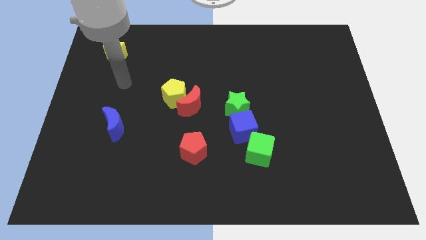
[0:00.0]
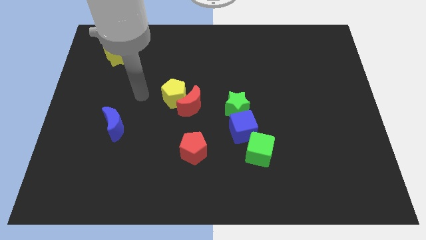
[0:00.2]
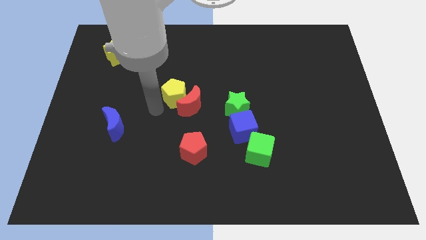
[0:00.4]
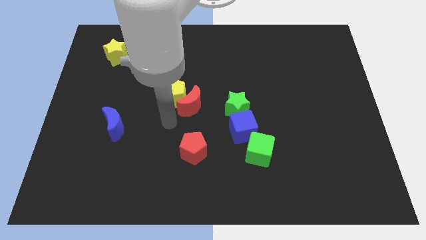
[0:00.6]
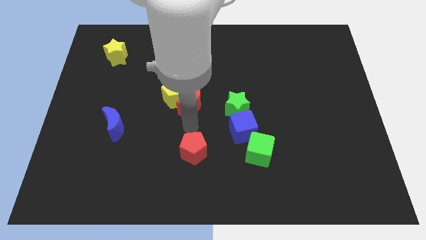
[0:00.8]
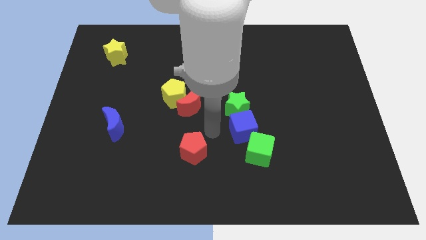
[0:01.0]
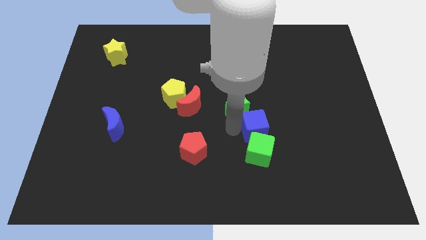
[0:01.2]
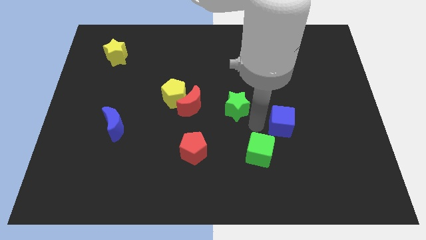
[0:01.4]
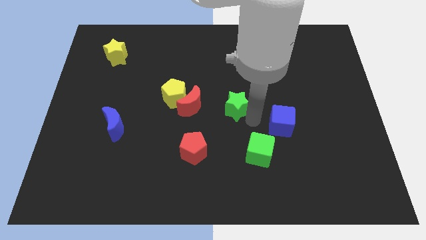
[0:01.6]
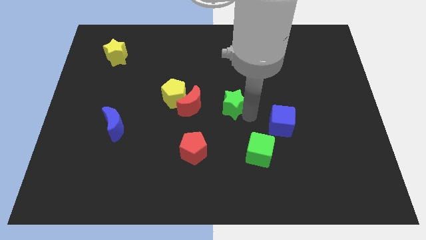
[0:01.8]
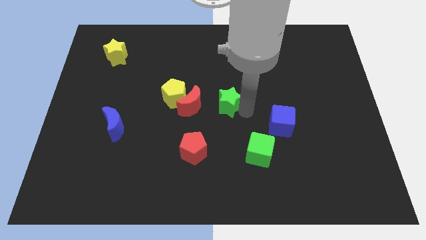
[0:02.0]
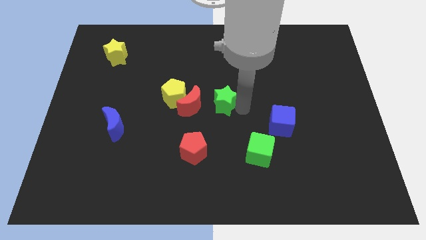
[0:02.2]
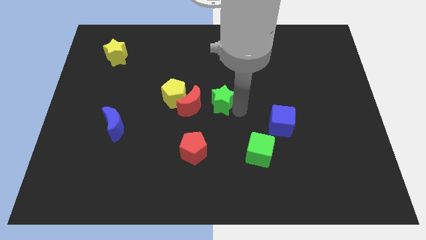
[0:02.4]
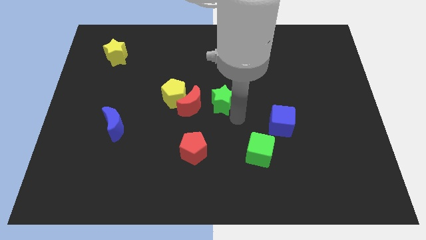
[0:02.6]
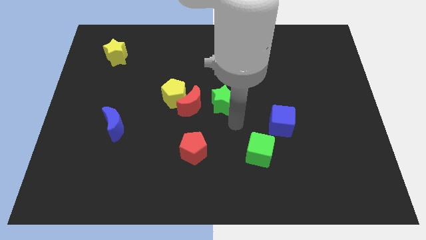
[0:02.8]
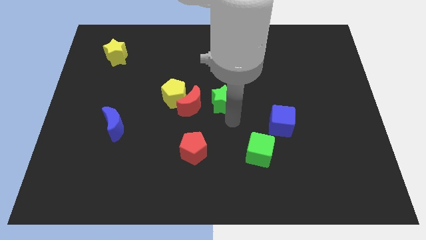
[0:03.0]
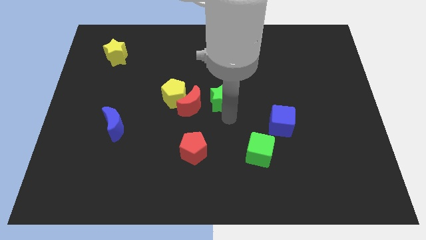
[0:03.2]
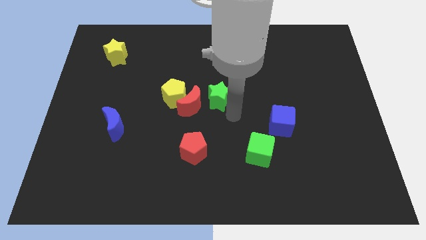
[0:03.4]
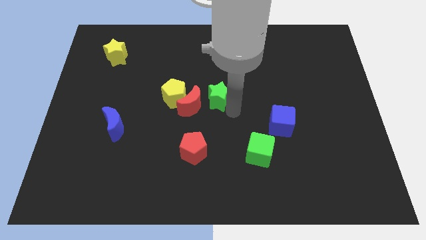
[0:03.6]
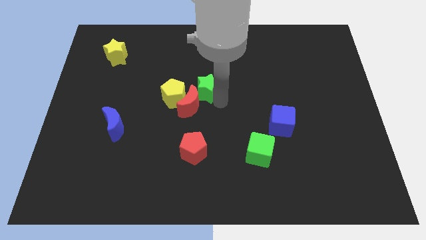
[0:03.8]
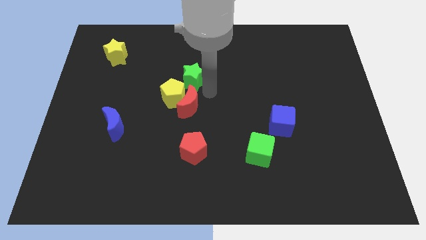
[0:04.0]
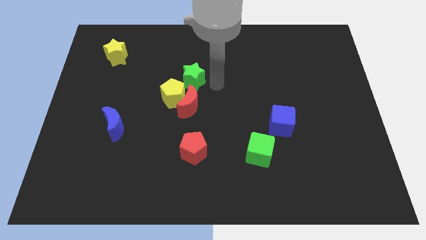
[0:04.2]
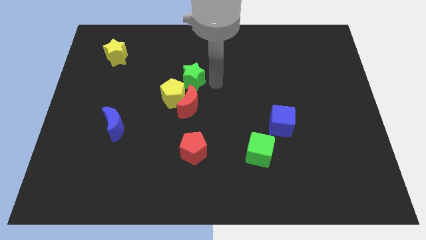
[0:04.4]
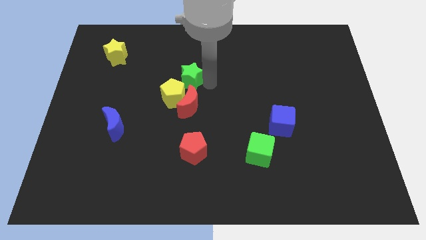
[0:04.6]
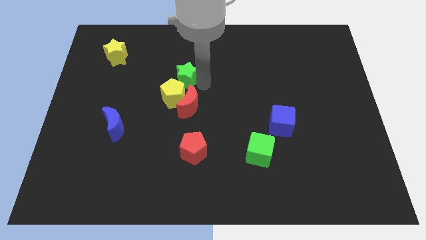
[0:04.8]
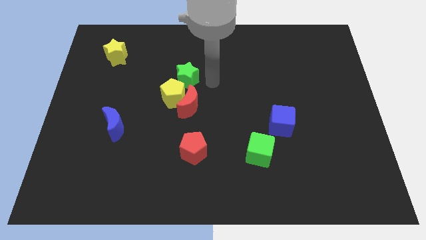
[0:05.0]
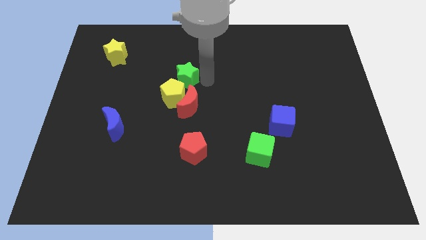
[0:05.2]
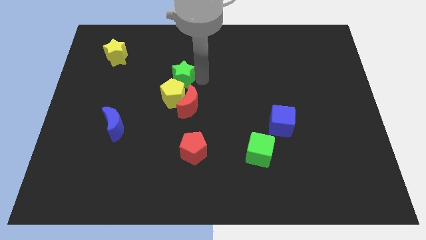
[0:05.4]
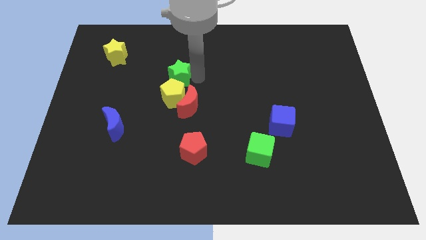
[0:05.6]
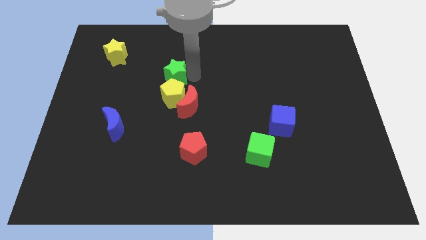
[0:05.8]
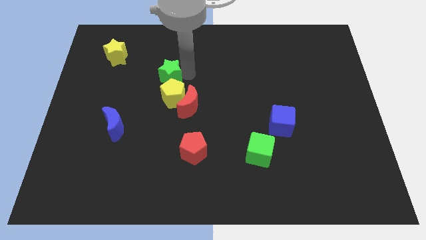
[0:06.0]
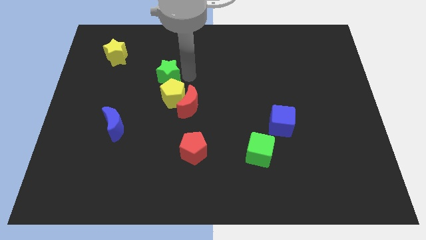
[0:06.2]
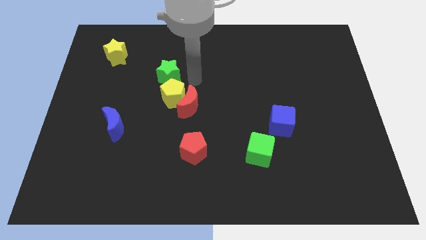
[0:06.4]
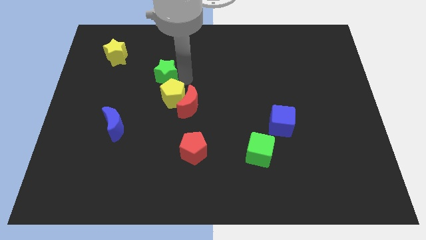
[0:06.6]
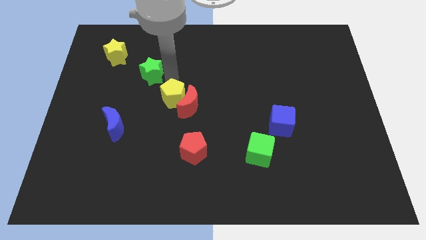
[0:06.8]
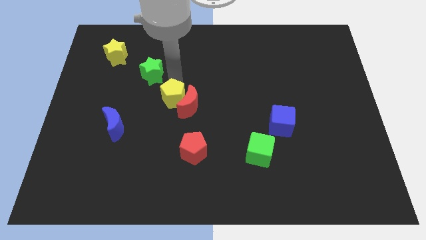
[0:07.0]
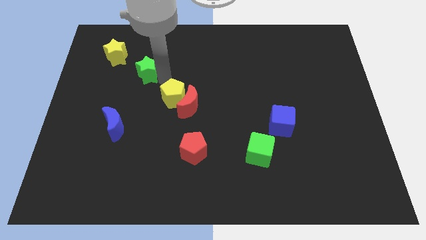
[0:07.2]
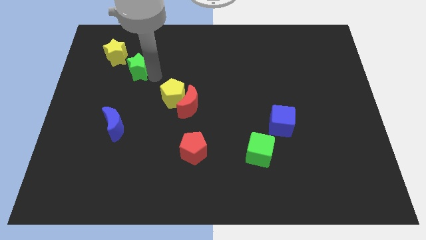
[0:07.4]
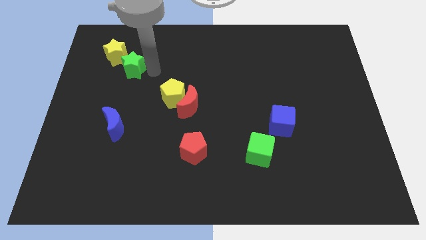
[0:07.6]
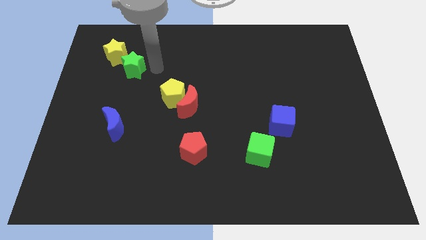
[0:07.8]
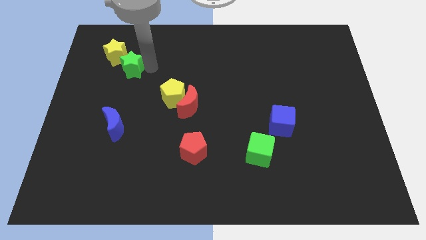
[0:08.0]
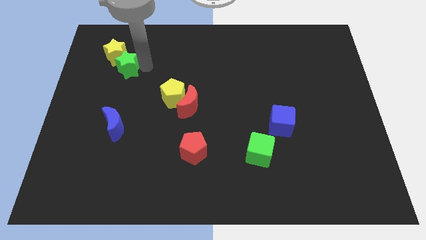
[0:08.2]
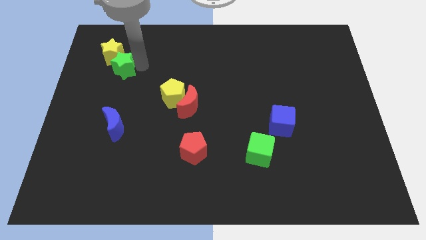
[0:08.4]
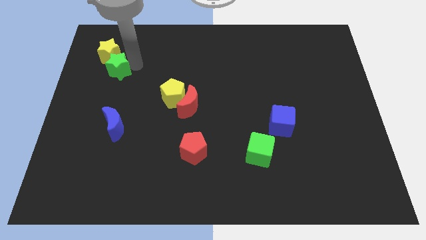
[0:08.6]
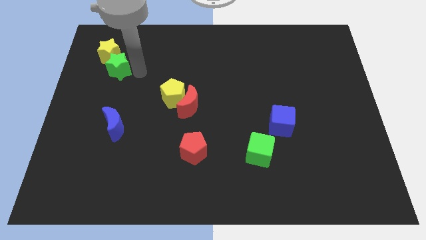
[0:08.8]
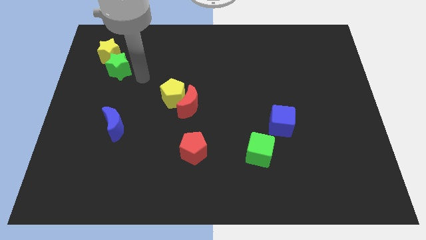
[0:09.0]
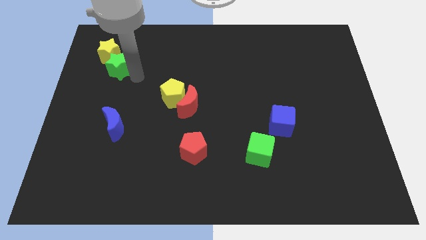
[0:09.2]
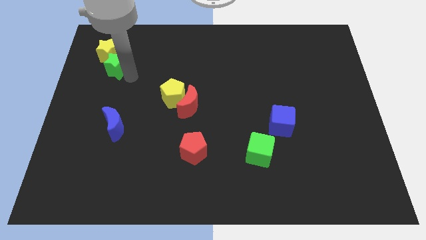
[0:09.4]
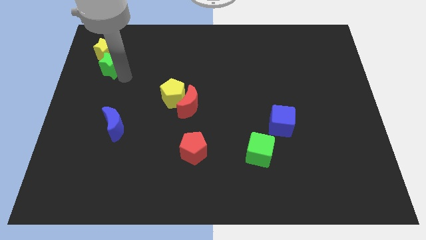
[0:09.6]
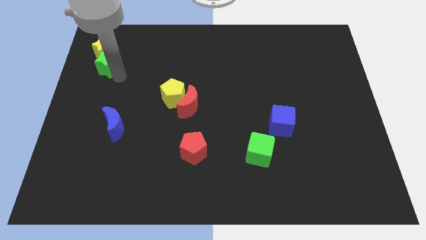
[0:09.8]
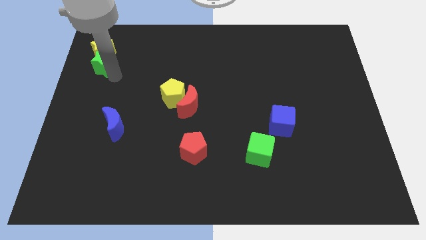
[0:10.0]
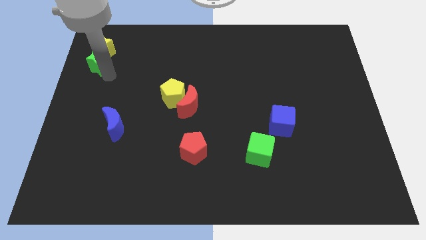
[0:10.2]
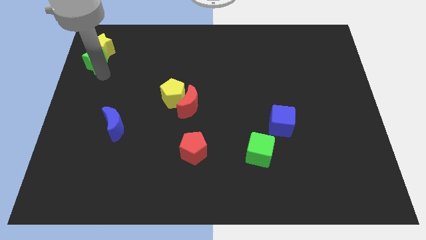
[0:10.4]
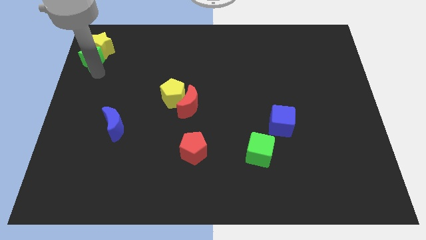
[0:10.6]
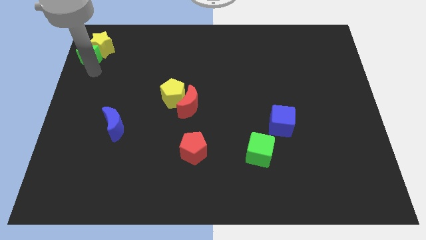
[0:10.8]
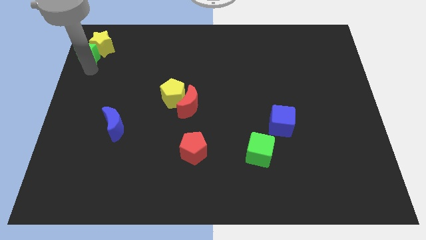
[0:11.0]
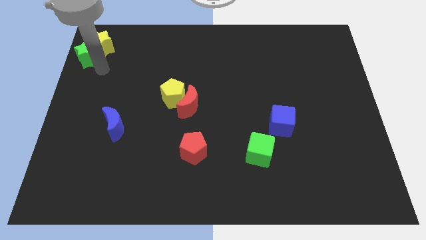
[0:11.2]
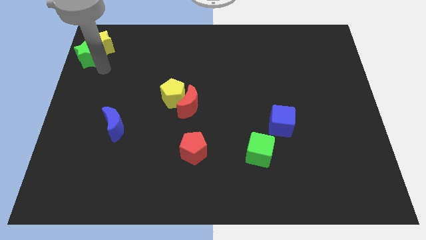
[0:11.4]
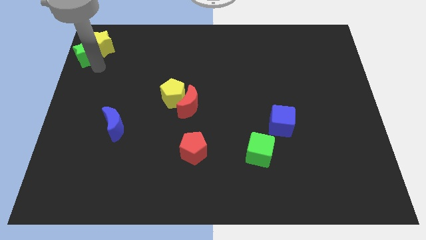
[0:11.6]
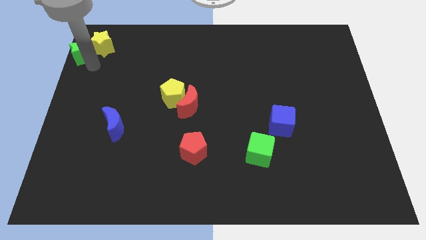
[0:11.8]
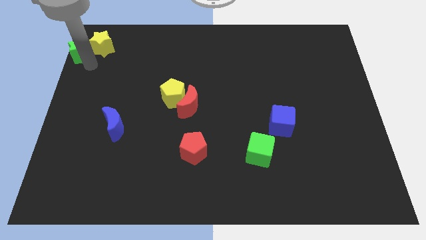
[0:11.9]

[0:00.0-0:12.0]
move the green star to the top left of the board
